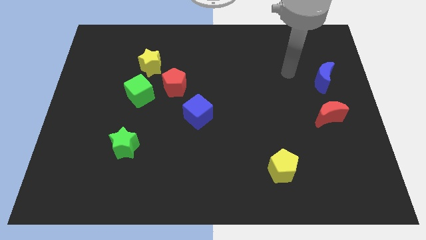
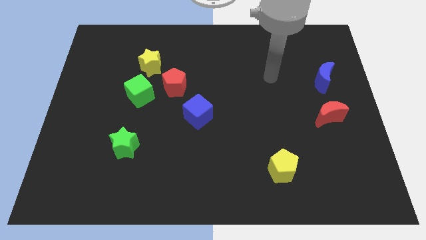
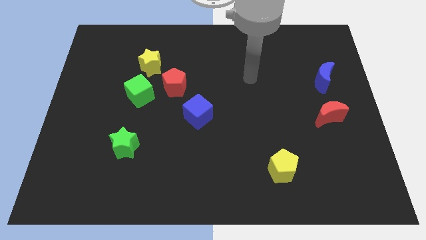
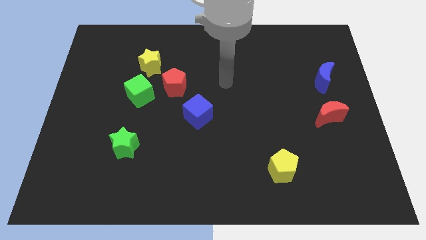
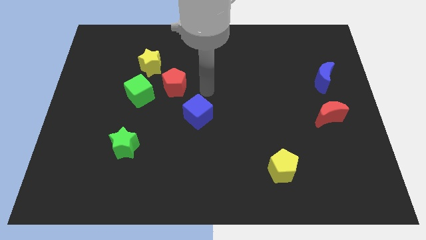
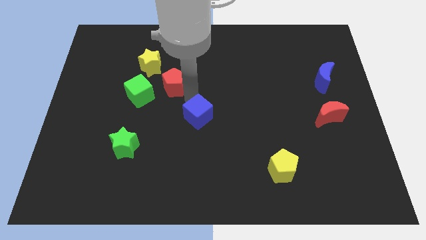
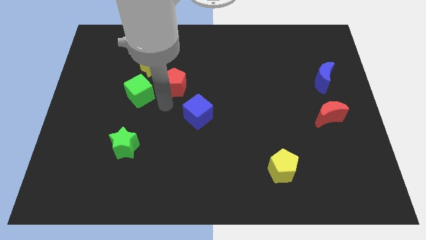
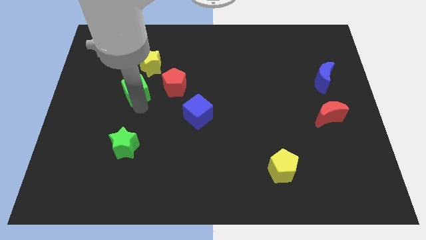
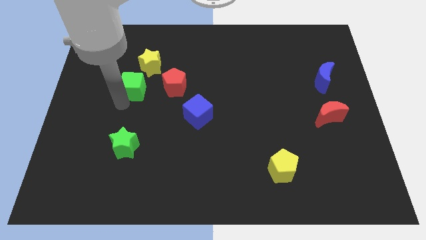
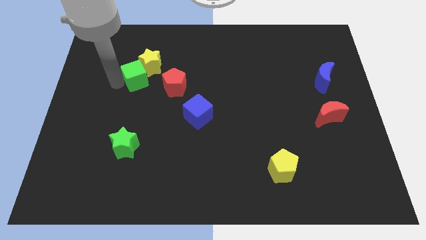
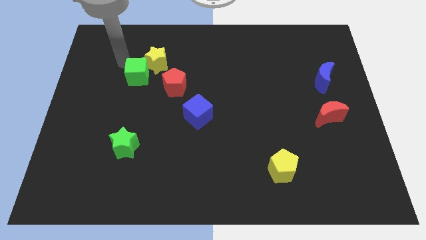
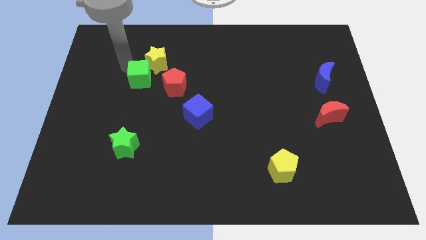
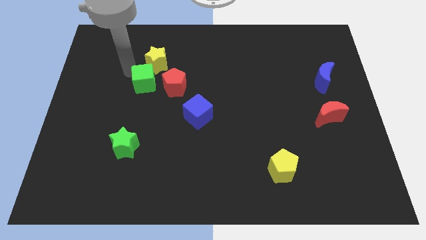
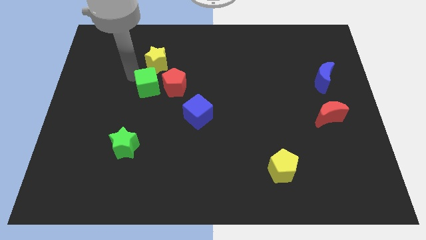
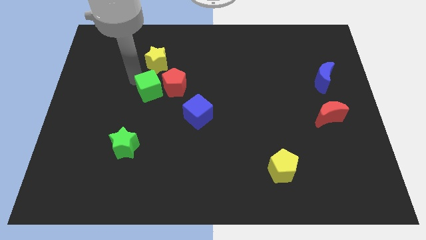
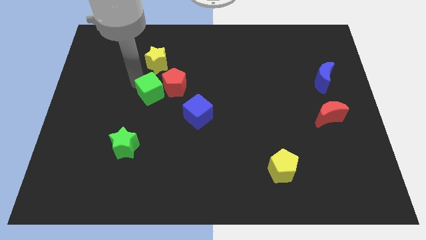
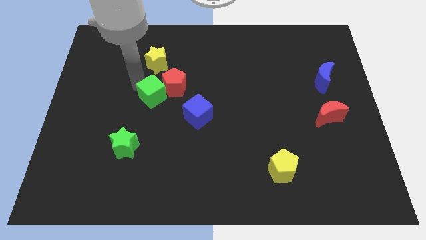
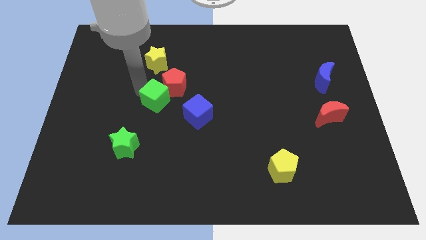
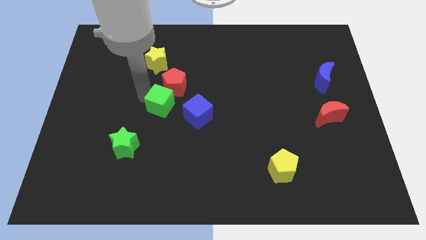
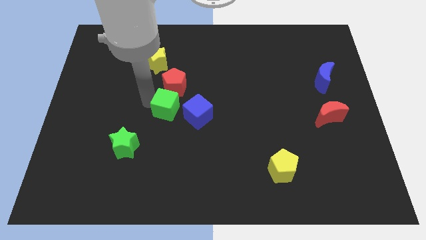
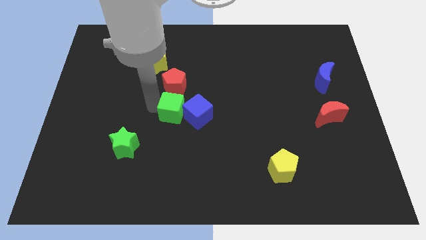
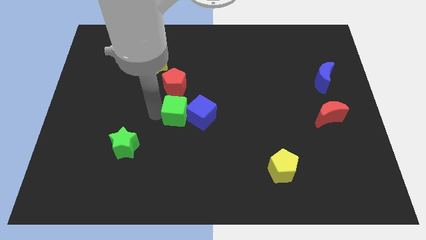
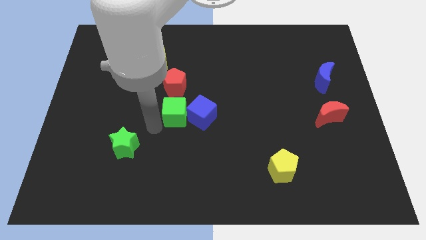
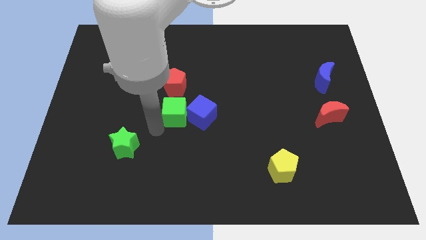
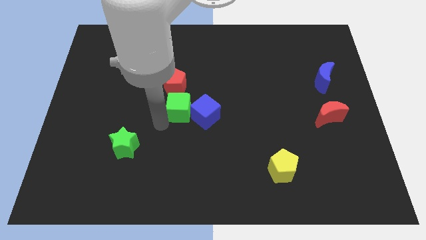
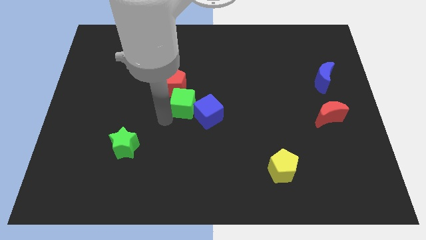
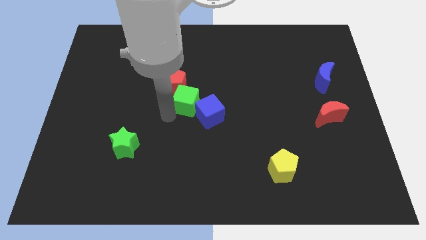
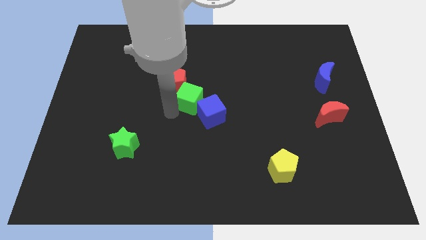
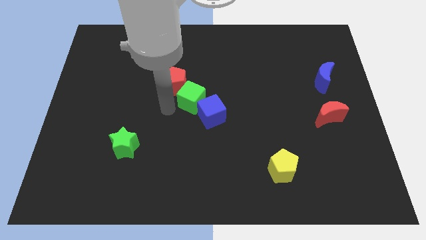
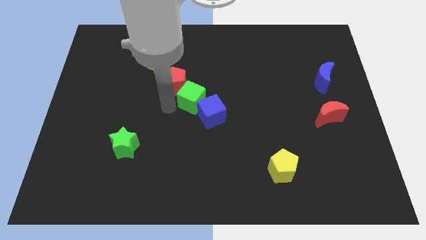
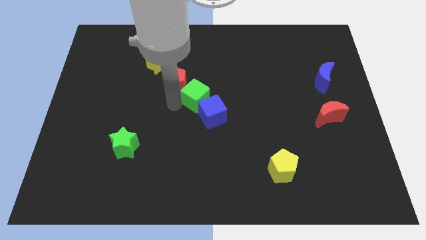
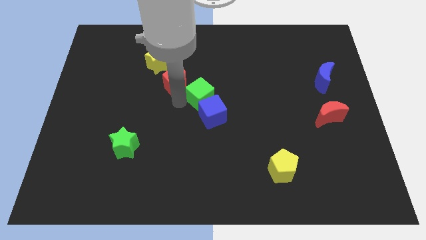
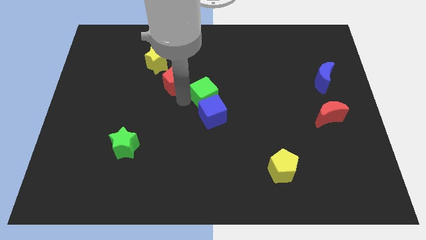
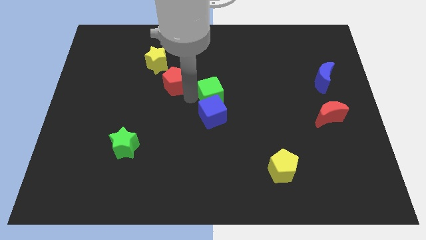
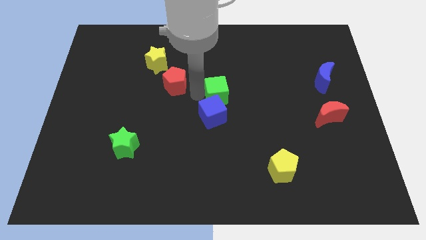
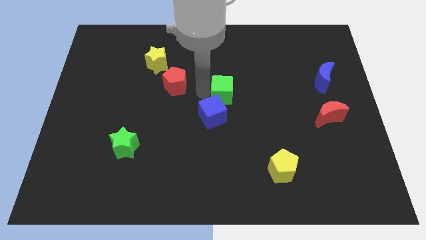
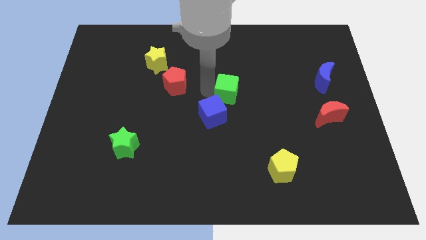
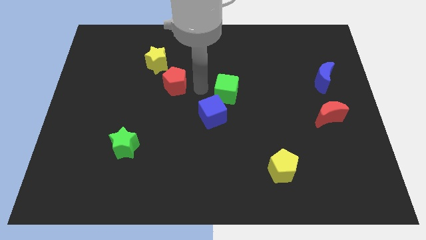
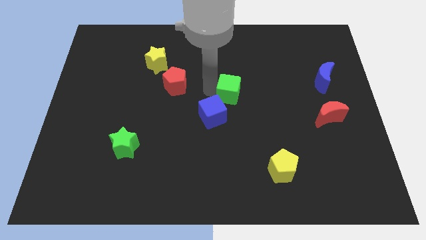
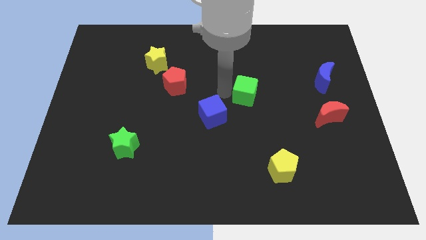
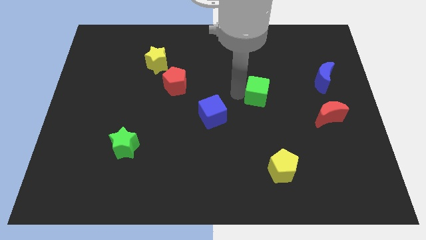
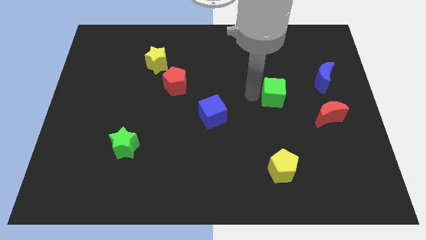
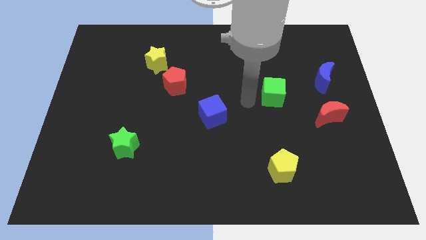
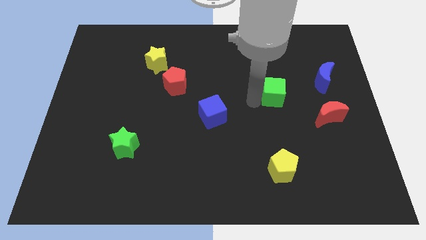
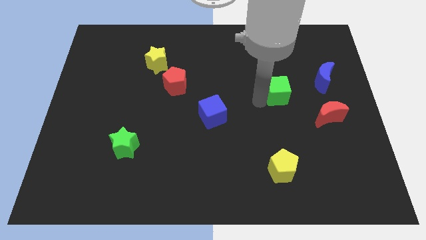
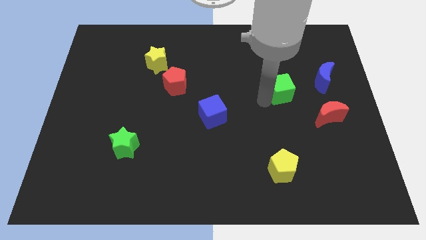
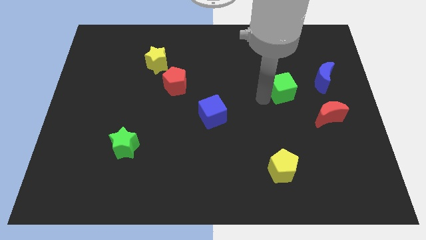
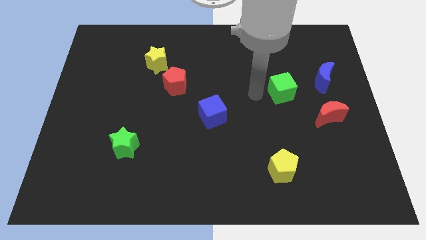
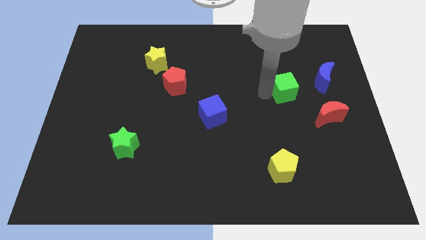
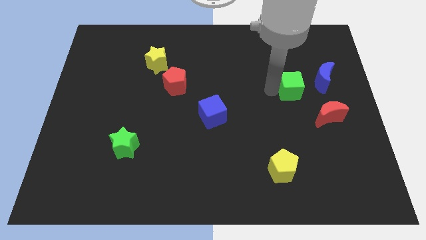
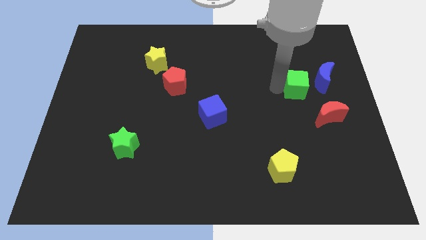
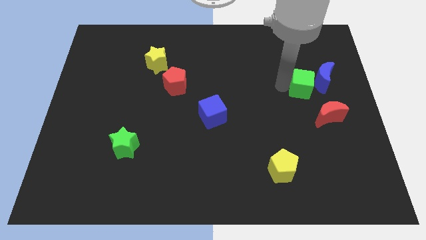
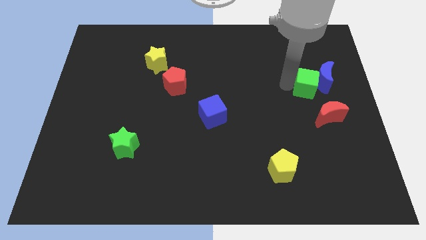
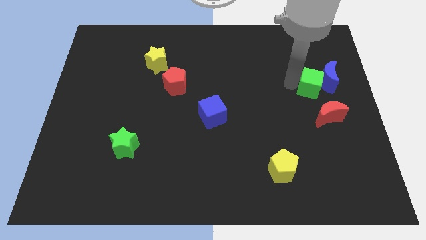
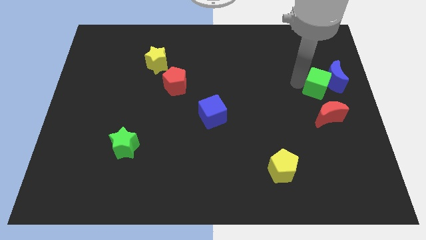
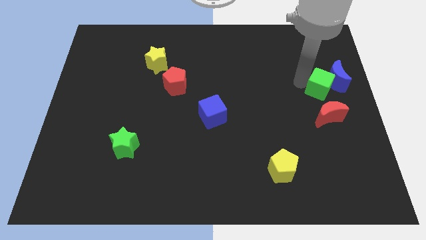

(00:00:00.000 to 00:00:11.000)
put the green cube to the center right
